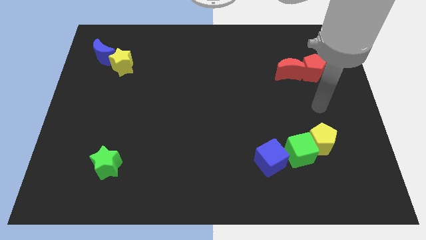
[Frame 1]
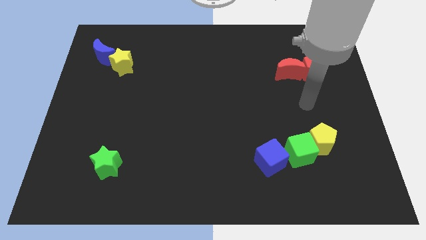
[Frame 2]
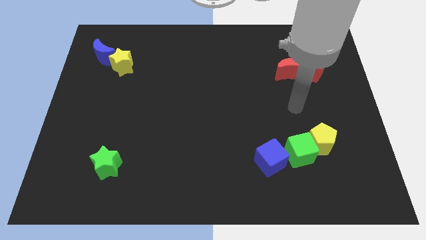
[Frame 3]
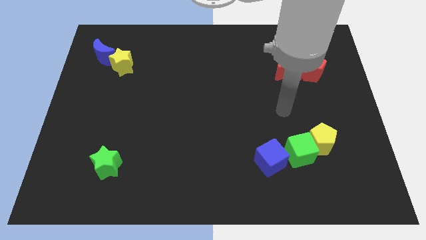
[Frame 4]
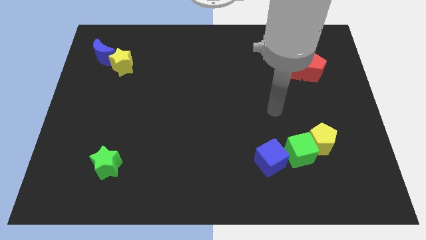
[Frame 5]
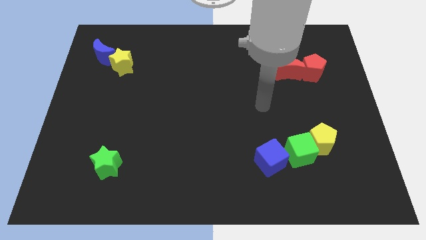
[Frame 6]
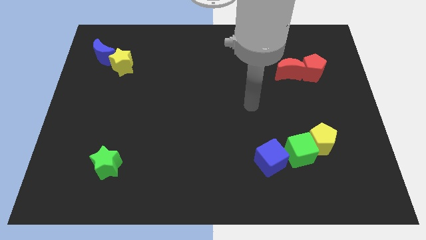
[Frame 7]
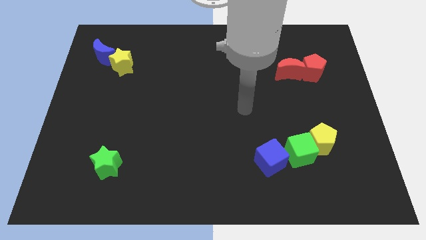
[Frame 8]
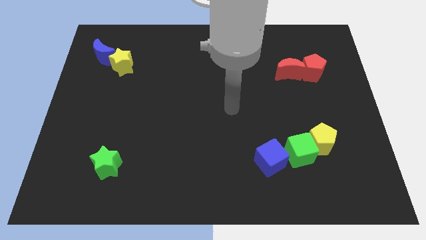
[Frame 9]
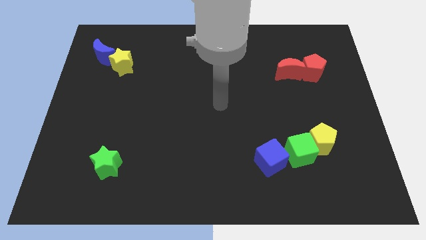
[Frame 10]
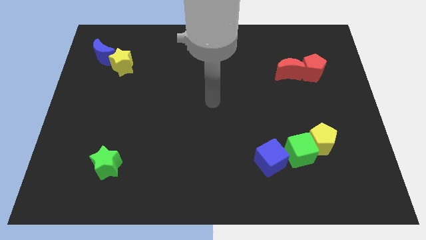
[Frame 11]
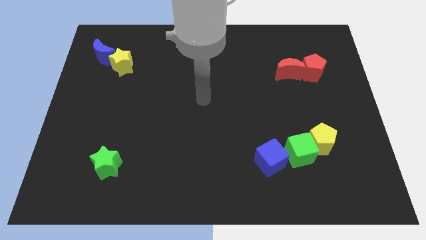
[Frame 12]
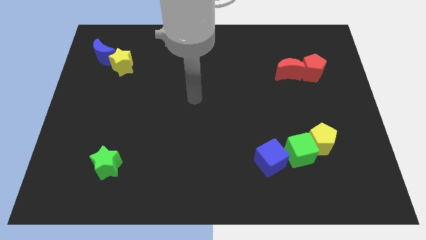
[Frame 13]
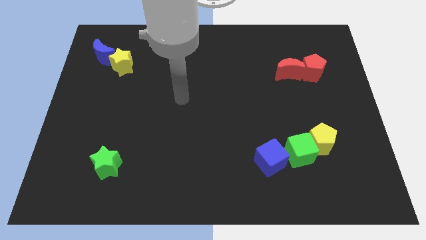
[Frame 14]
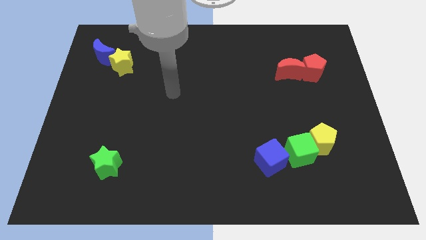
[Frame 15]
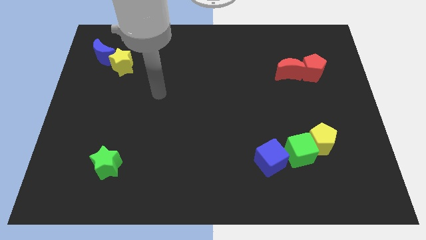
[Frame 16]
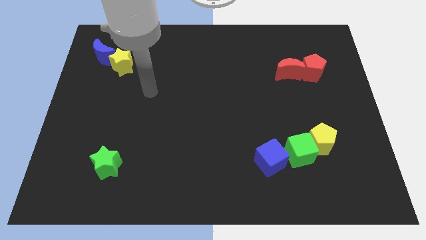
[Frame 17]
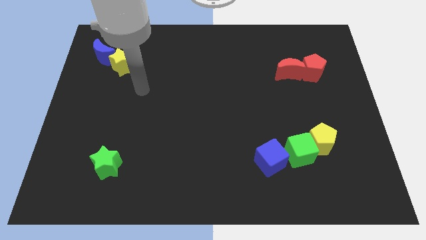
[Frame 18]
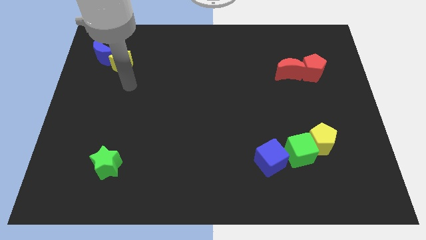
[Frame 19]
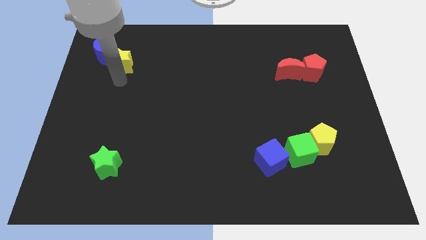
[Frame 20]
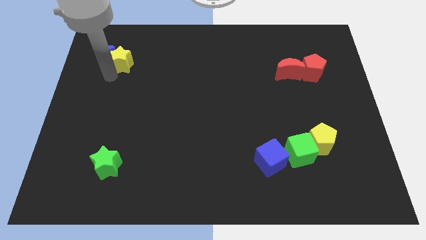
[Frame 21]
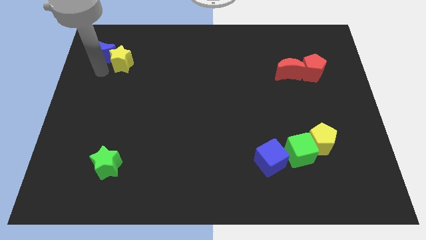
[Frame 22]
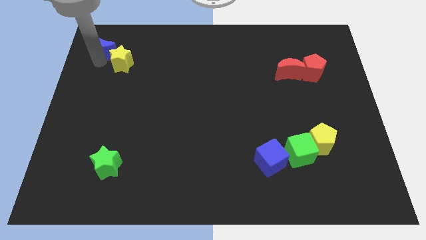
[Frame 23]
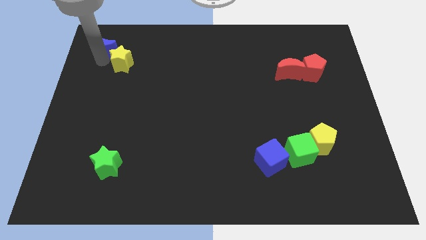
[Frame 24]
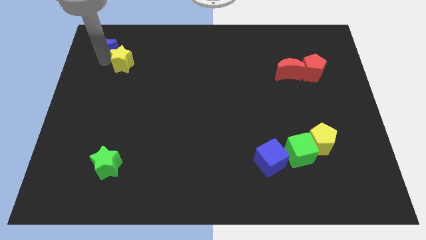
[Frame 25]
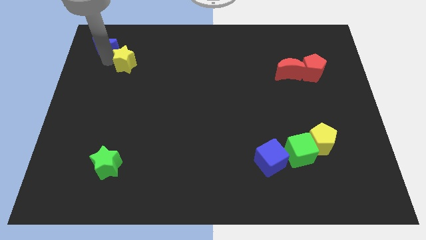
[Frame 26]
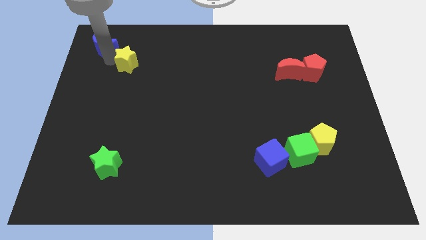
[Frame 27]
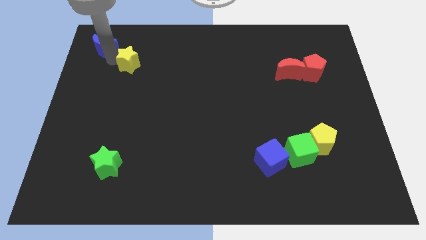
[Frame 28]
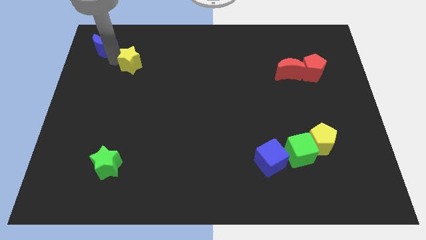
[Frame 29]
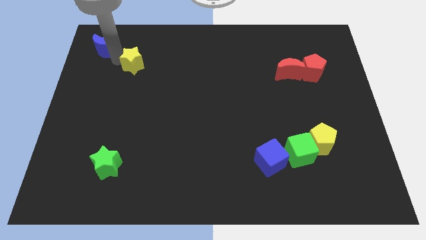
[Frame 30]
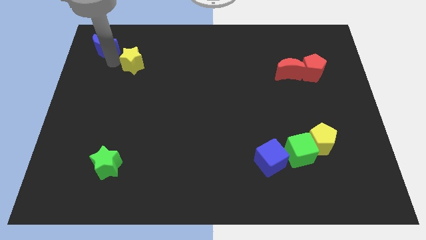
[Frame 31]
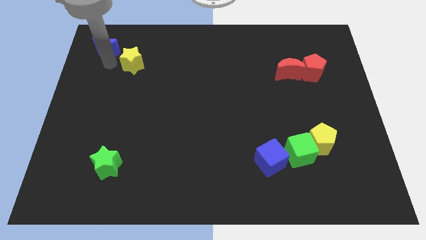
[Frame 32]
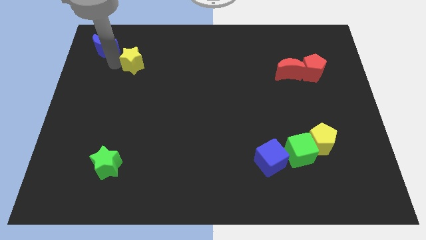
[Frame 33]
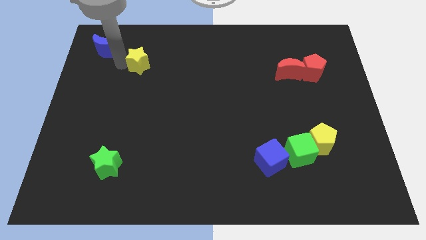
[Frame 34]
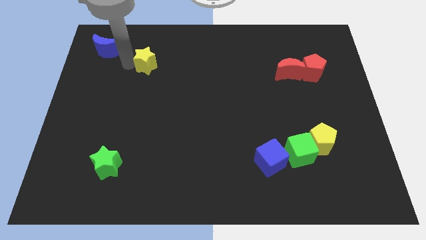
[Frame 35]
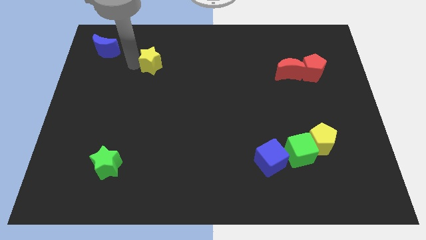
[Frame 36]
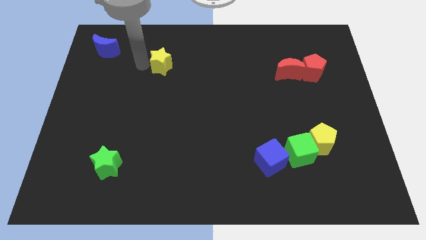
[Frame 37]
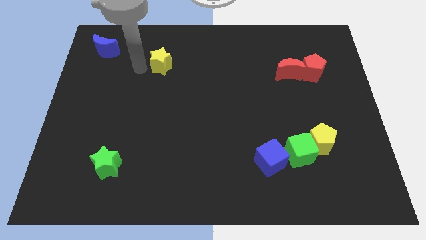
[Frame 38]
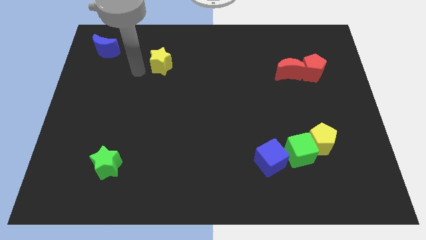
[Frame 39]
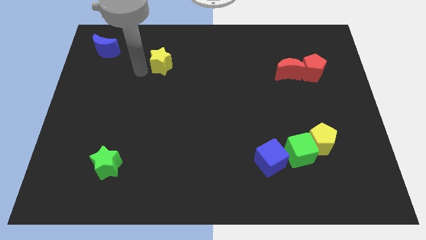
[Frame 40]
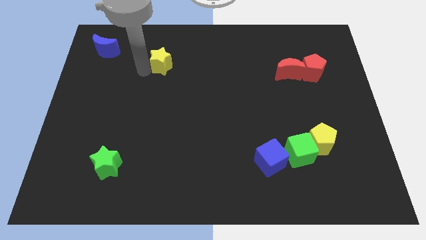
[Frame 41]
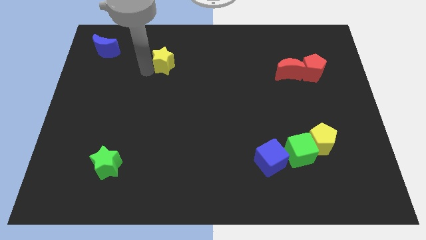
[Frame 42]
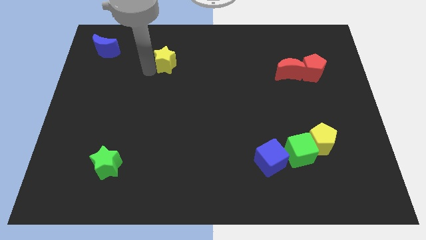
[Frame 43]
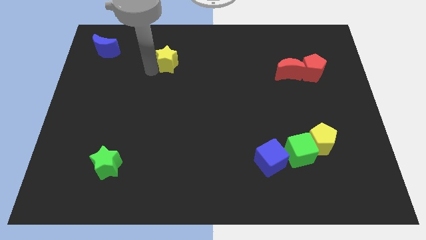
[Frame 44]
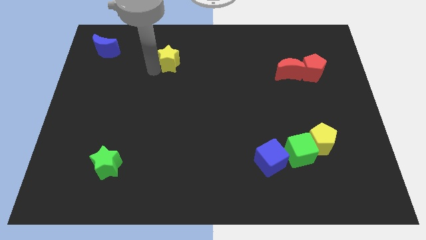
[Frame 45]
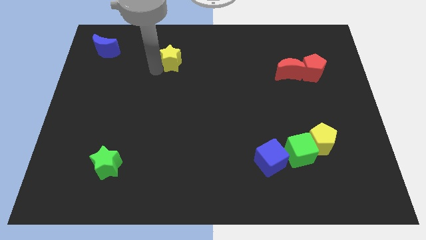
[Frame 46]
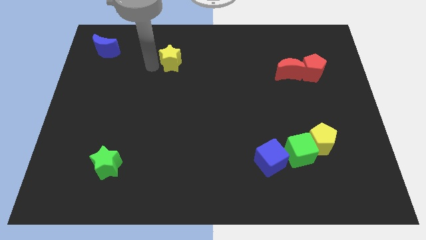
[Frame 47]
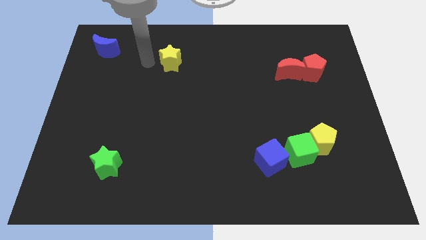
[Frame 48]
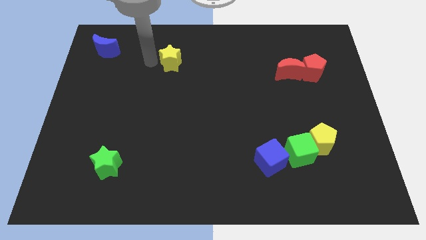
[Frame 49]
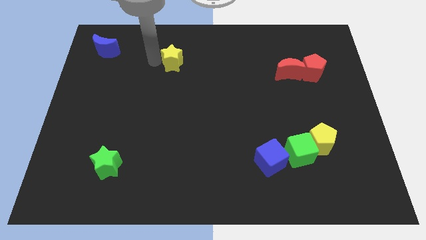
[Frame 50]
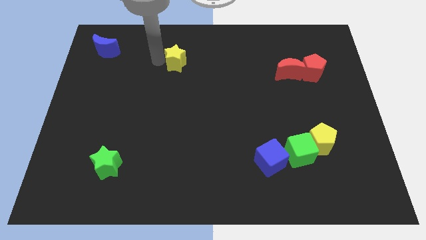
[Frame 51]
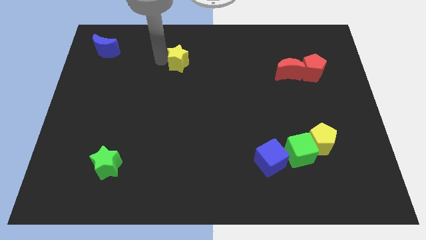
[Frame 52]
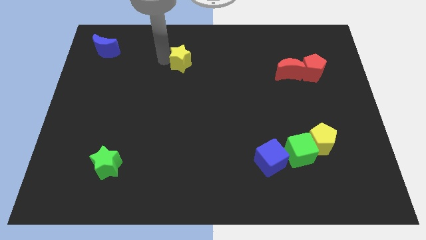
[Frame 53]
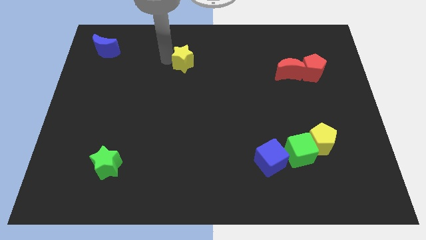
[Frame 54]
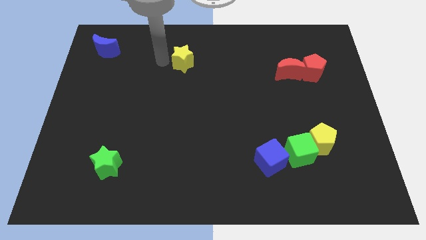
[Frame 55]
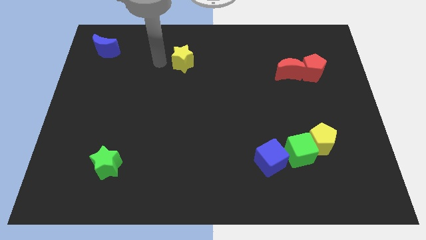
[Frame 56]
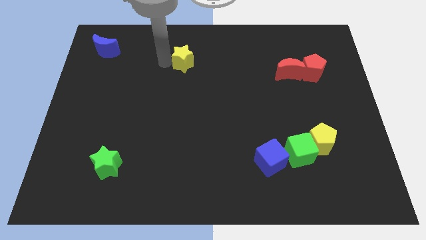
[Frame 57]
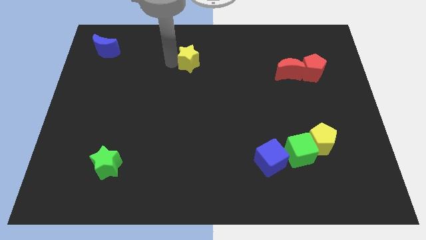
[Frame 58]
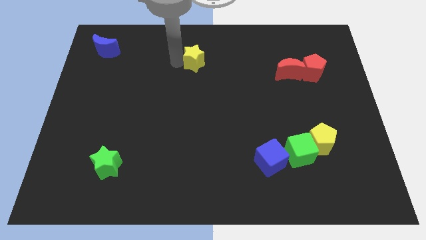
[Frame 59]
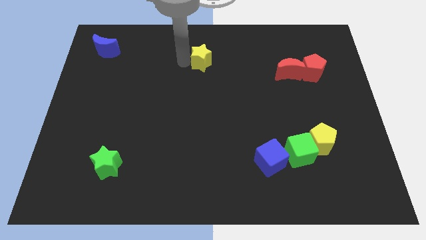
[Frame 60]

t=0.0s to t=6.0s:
push the yellow star to the right

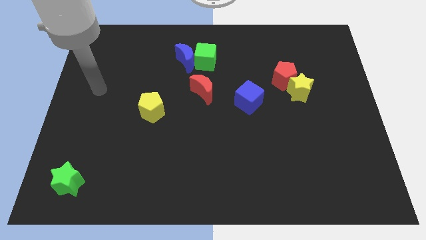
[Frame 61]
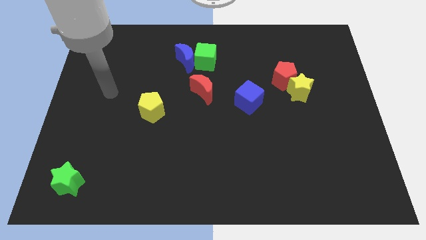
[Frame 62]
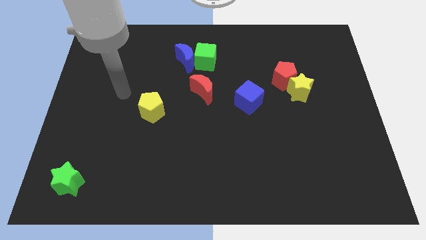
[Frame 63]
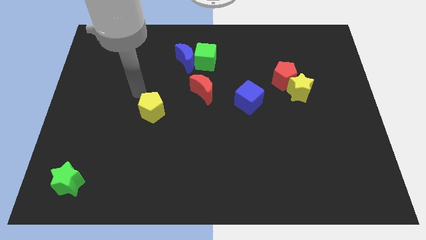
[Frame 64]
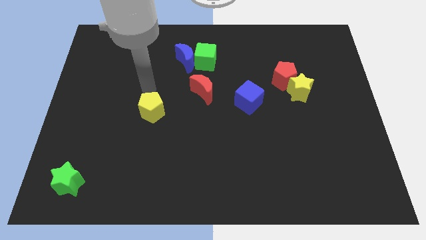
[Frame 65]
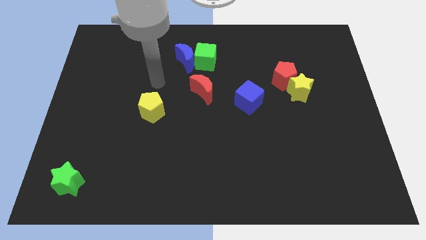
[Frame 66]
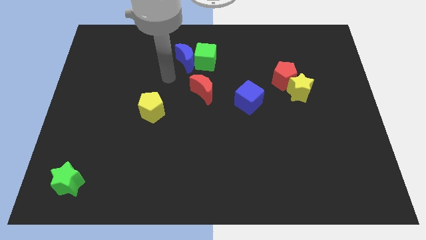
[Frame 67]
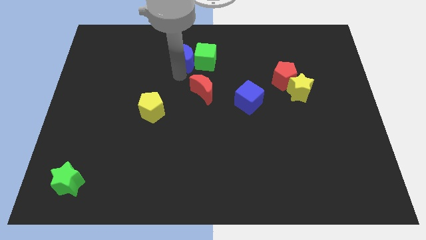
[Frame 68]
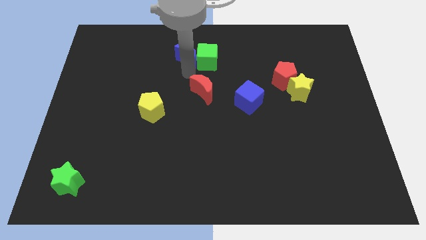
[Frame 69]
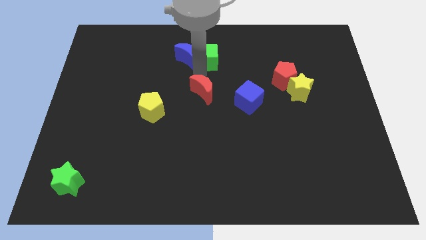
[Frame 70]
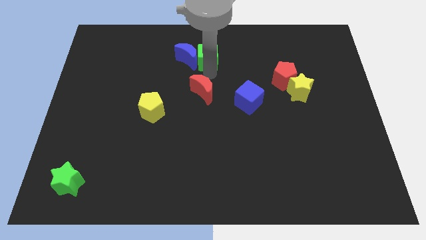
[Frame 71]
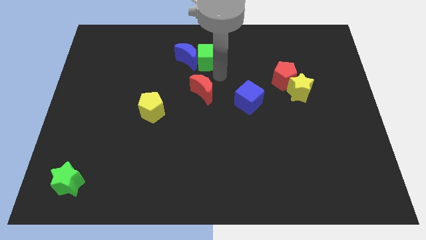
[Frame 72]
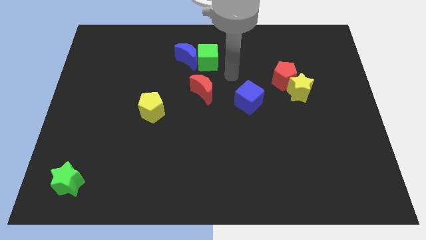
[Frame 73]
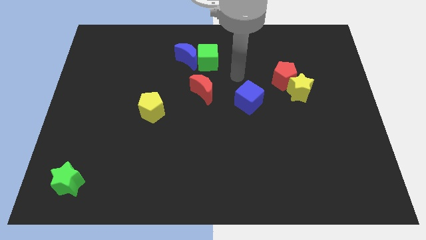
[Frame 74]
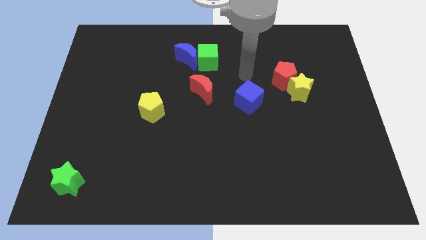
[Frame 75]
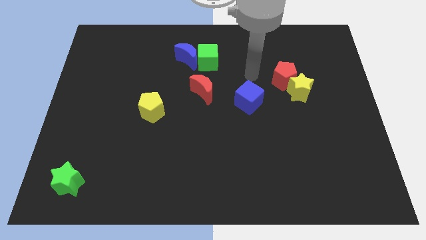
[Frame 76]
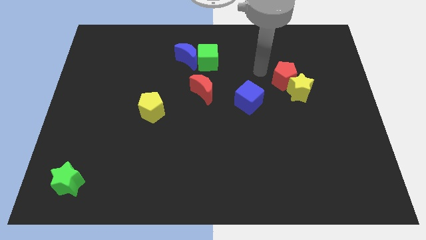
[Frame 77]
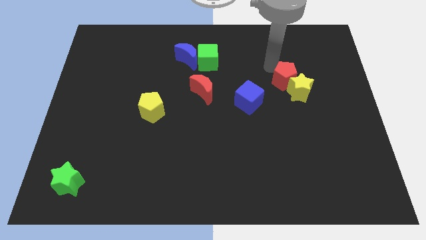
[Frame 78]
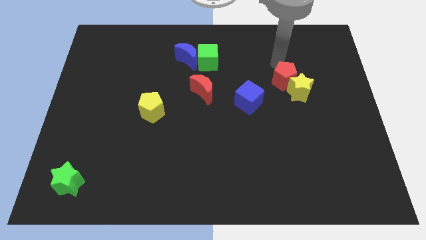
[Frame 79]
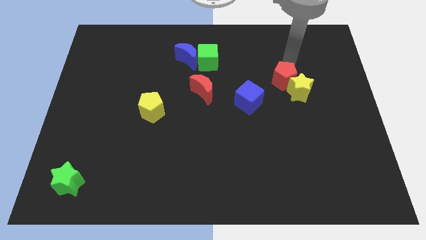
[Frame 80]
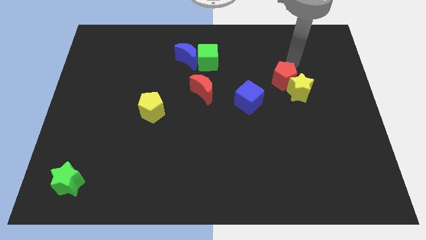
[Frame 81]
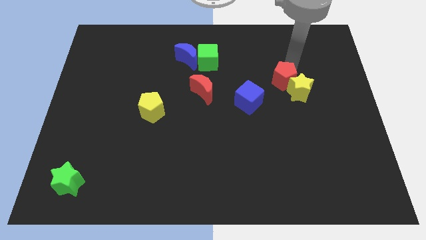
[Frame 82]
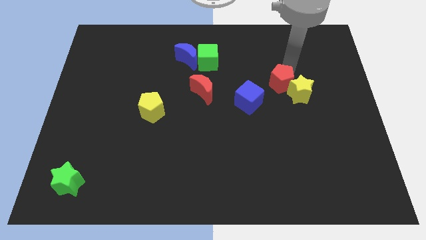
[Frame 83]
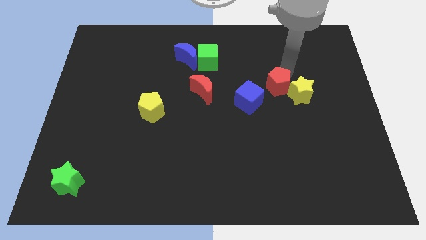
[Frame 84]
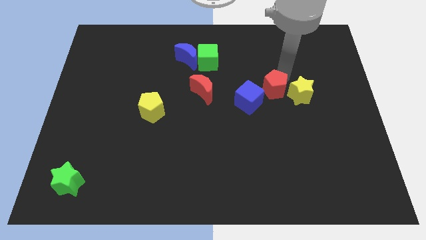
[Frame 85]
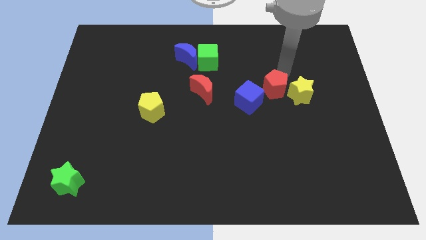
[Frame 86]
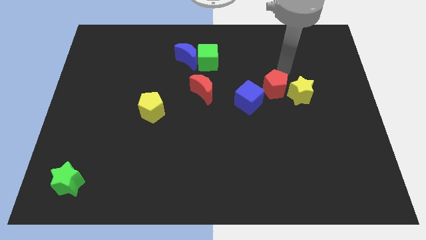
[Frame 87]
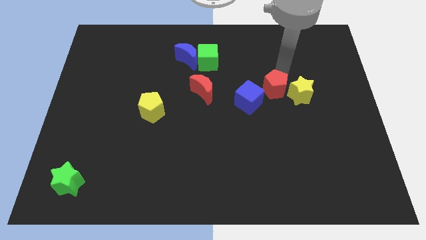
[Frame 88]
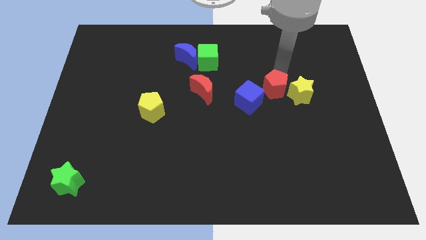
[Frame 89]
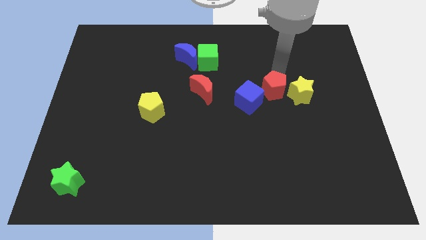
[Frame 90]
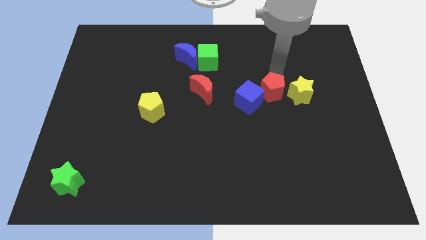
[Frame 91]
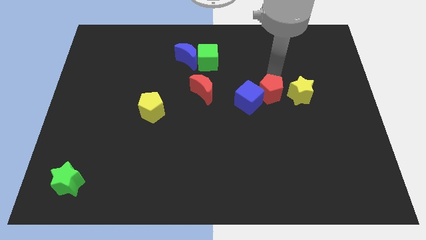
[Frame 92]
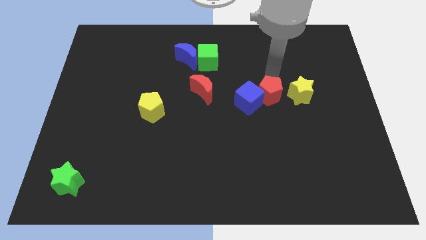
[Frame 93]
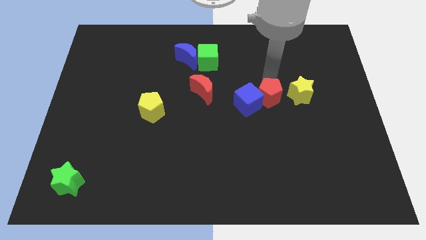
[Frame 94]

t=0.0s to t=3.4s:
slightly move the red pentagon down and then to the left
